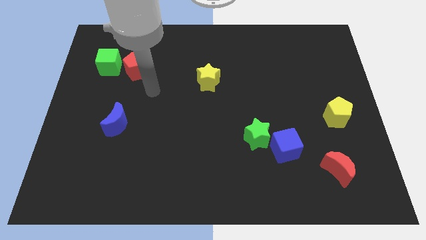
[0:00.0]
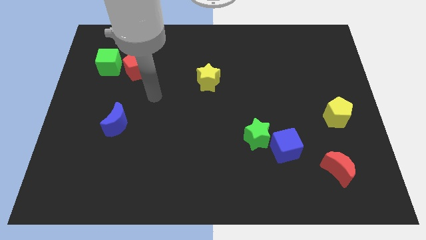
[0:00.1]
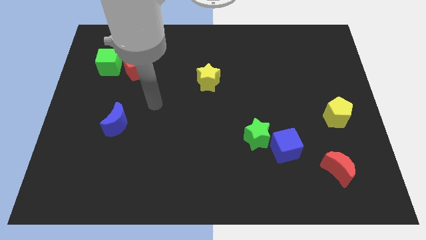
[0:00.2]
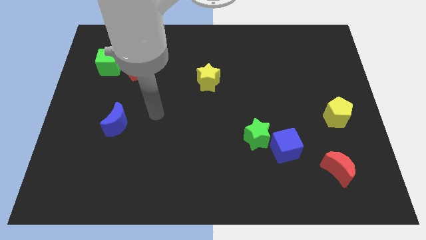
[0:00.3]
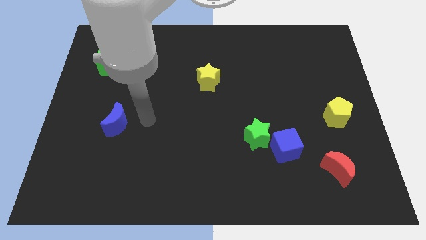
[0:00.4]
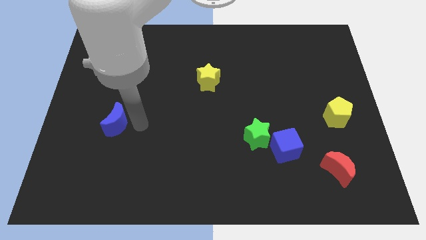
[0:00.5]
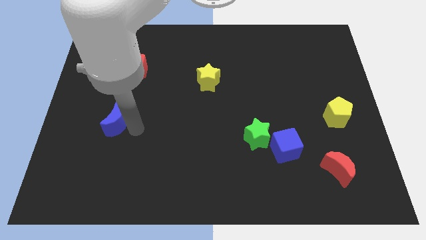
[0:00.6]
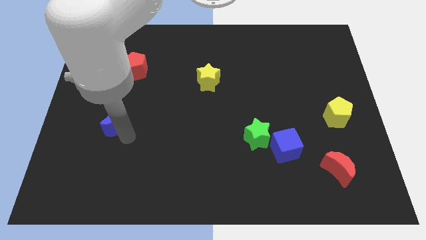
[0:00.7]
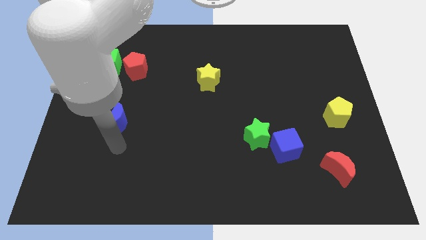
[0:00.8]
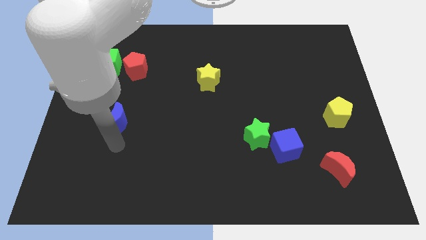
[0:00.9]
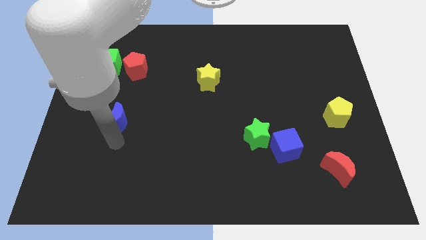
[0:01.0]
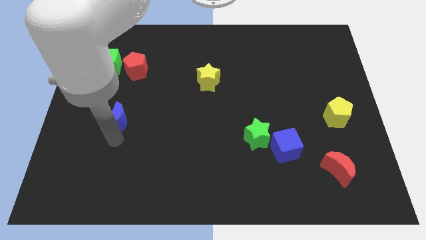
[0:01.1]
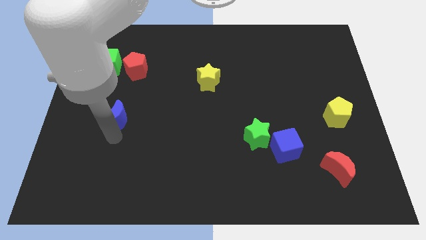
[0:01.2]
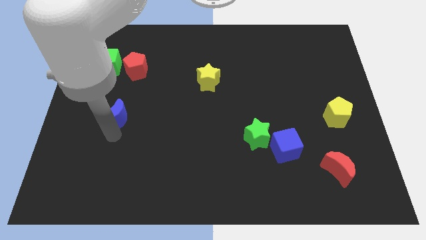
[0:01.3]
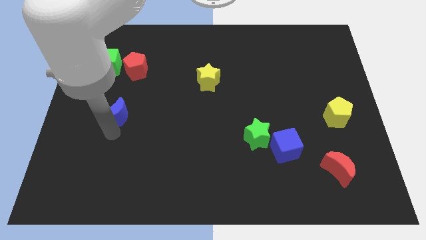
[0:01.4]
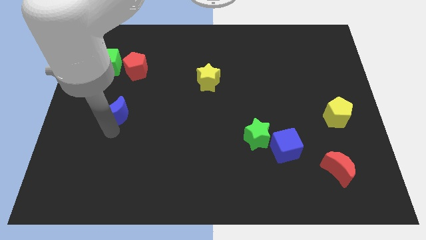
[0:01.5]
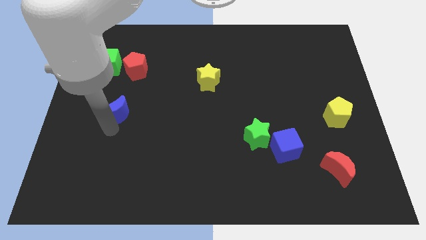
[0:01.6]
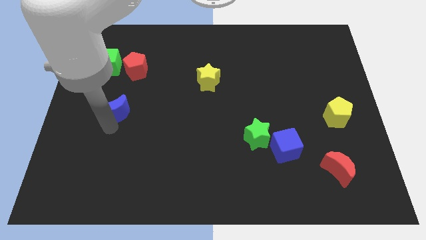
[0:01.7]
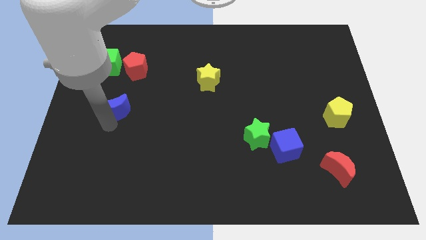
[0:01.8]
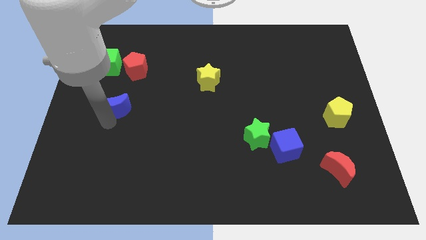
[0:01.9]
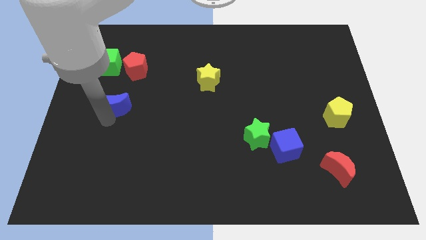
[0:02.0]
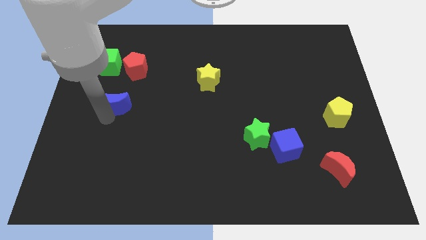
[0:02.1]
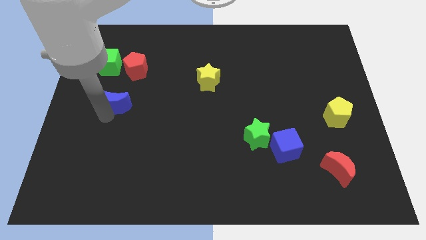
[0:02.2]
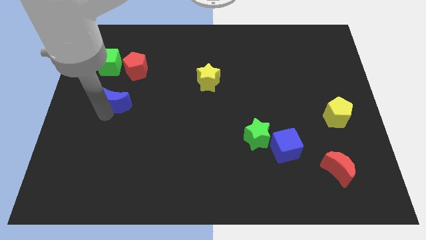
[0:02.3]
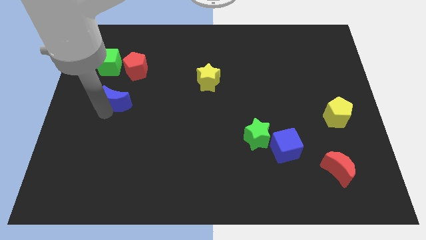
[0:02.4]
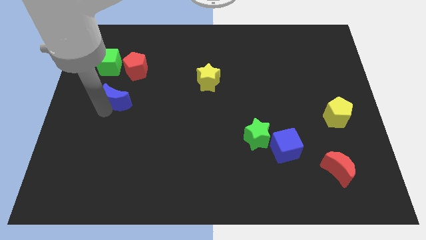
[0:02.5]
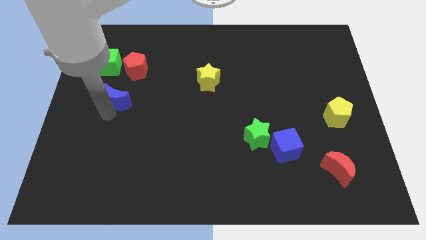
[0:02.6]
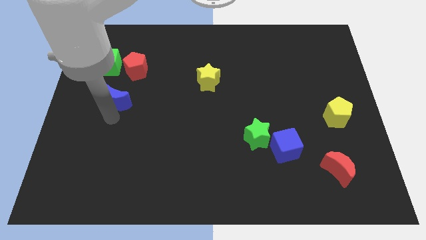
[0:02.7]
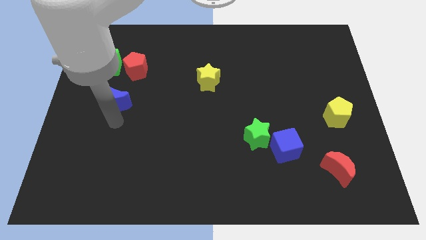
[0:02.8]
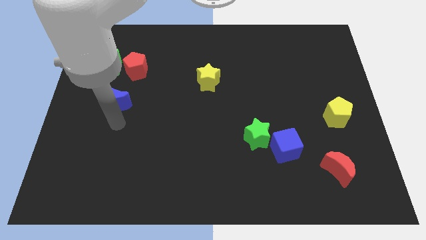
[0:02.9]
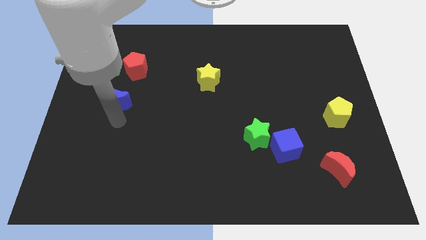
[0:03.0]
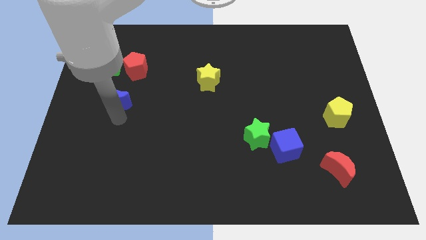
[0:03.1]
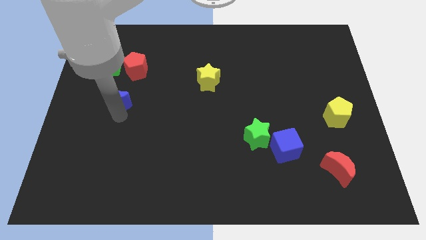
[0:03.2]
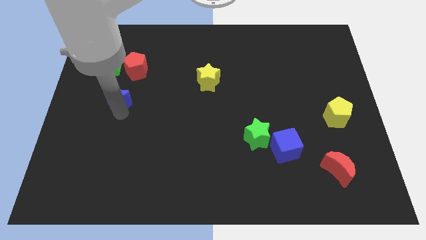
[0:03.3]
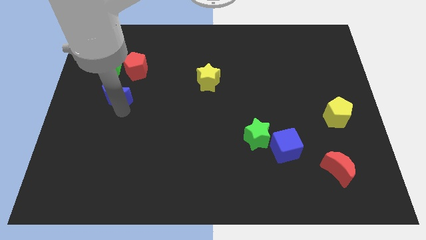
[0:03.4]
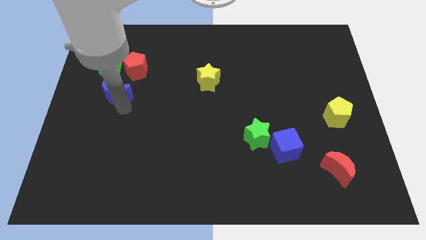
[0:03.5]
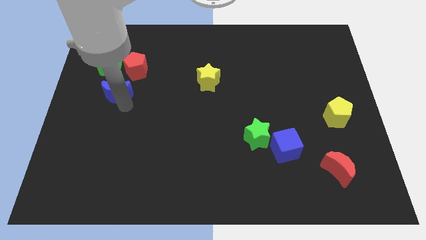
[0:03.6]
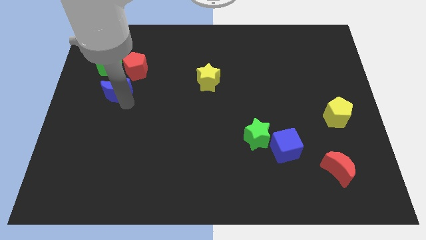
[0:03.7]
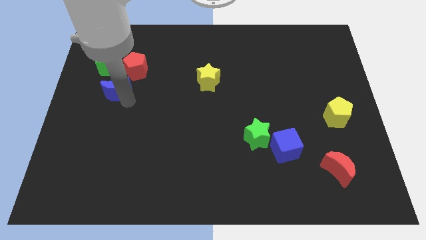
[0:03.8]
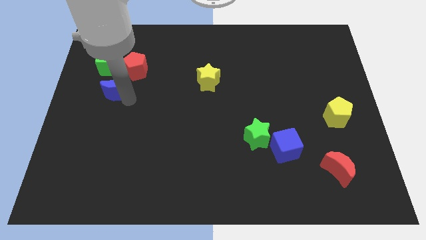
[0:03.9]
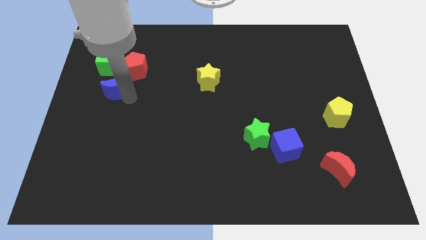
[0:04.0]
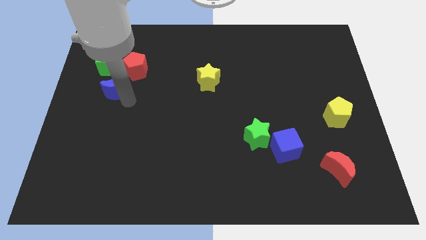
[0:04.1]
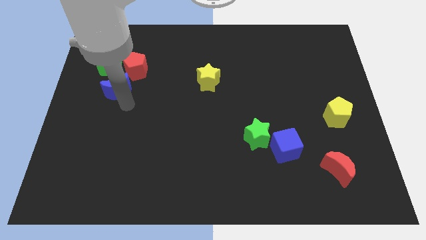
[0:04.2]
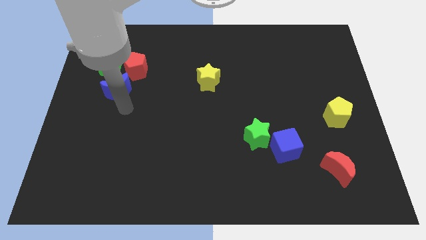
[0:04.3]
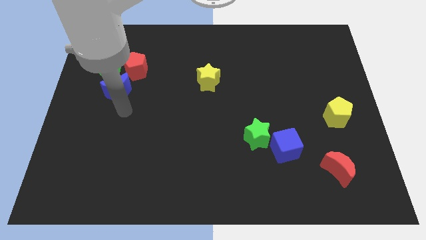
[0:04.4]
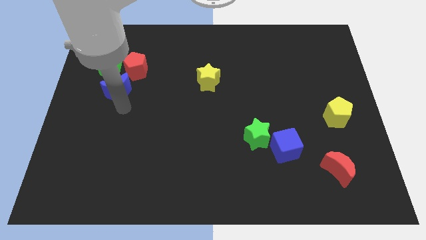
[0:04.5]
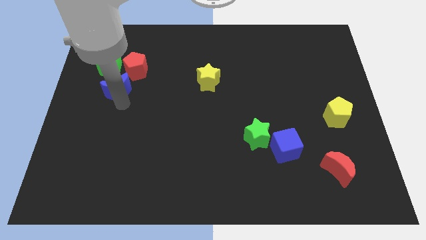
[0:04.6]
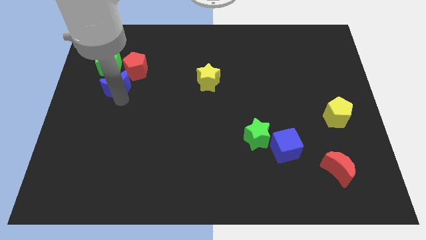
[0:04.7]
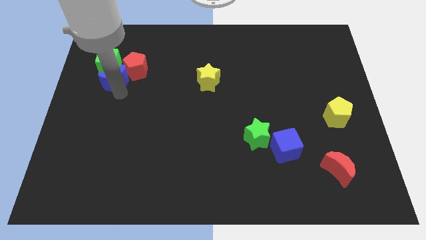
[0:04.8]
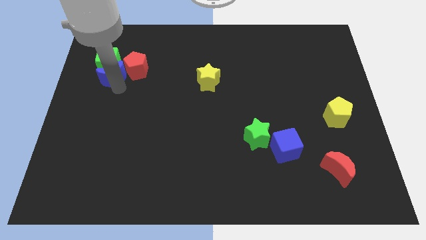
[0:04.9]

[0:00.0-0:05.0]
push the blue moon close to the green cube

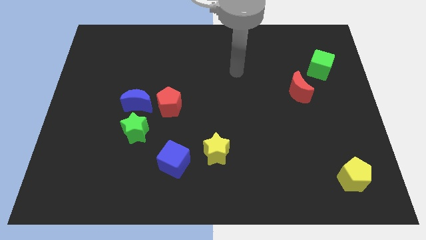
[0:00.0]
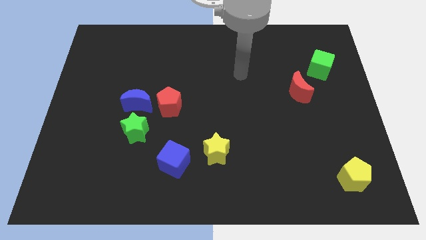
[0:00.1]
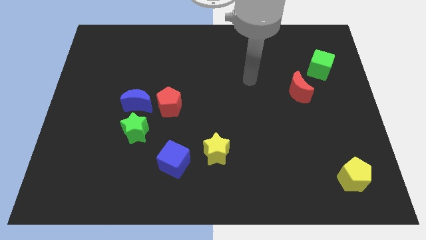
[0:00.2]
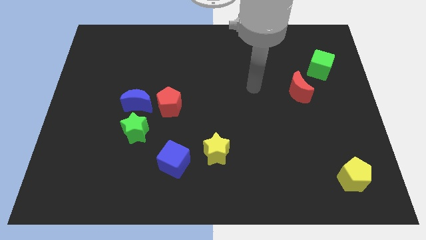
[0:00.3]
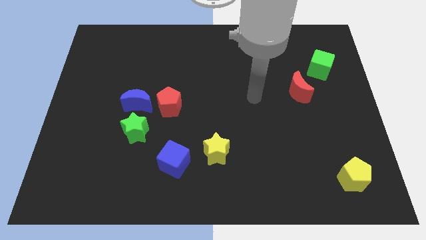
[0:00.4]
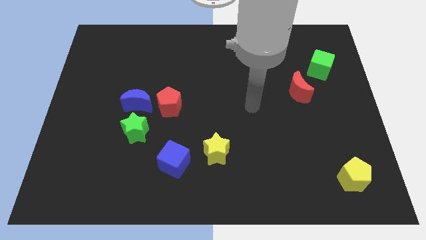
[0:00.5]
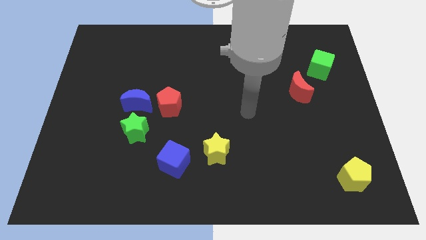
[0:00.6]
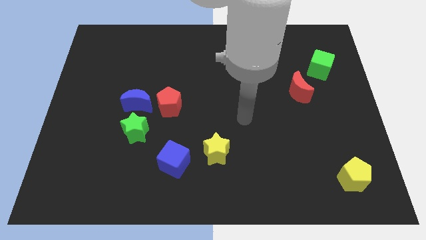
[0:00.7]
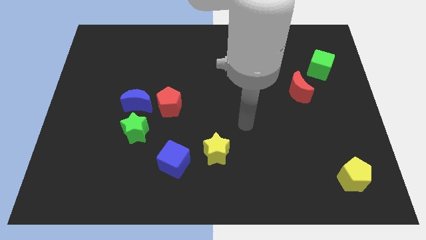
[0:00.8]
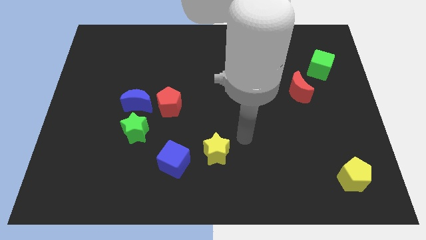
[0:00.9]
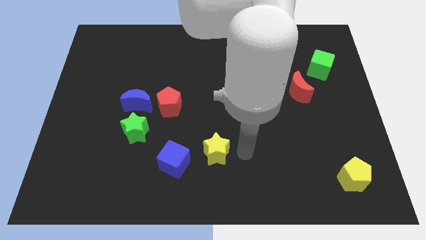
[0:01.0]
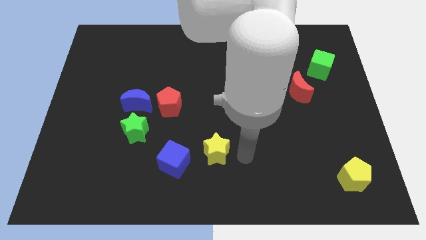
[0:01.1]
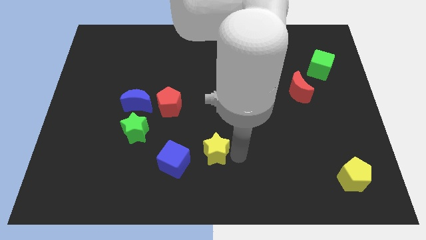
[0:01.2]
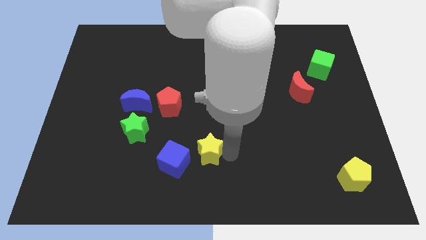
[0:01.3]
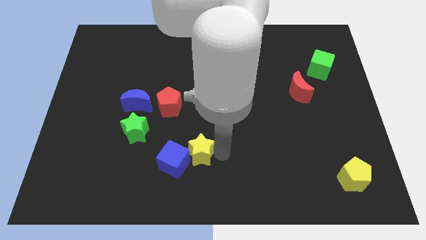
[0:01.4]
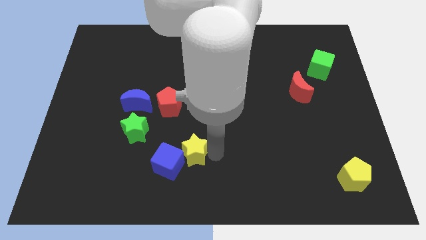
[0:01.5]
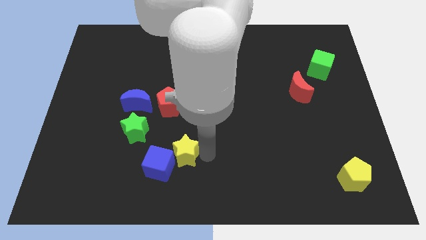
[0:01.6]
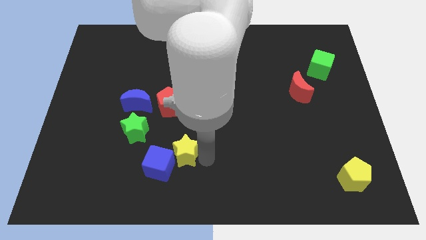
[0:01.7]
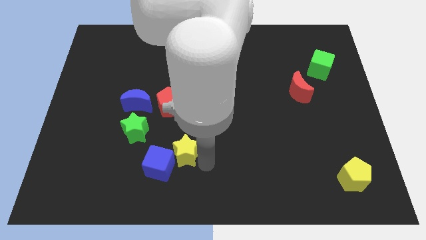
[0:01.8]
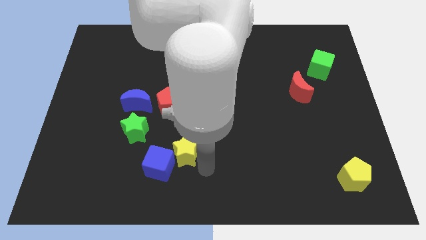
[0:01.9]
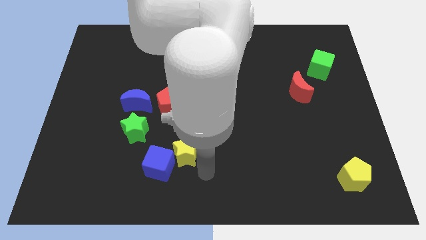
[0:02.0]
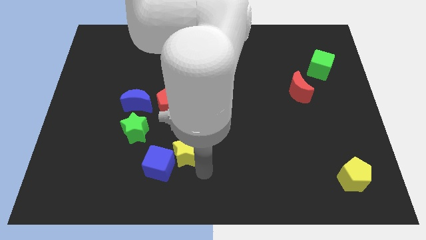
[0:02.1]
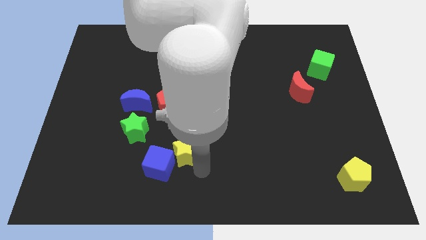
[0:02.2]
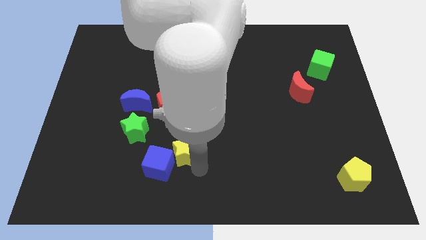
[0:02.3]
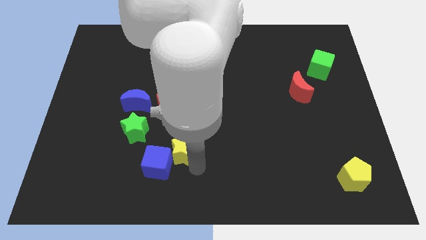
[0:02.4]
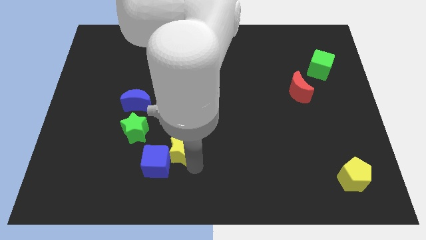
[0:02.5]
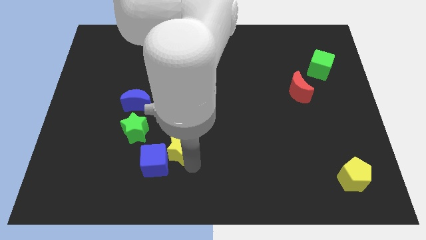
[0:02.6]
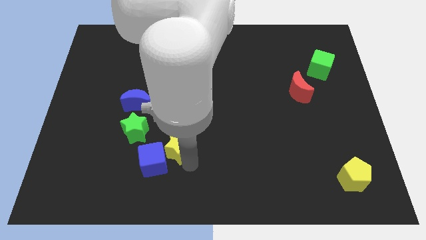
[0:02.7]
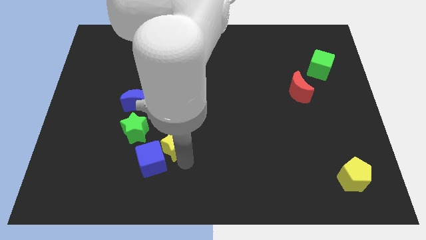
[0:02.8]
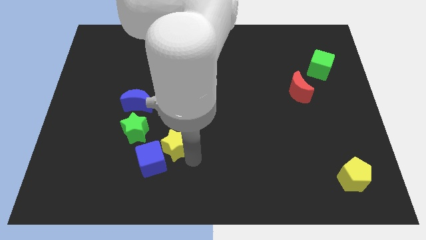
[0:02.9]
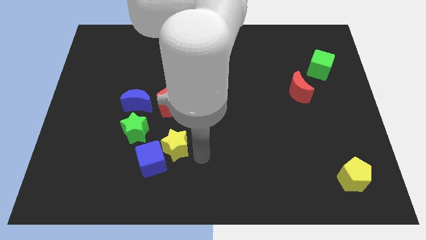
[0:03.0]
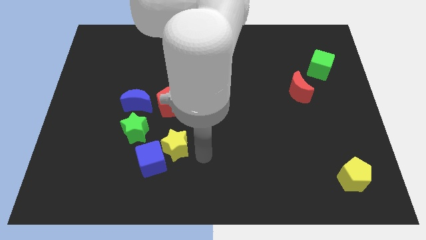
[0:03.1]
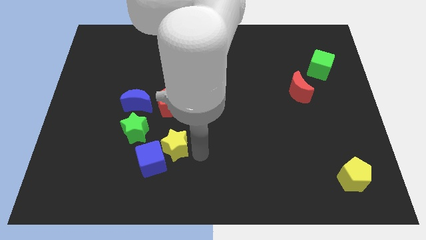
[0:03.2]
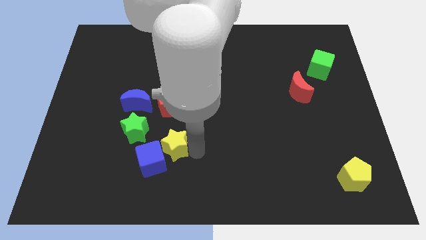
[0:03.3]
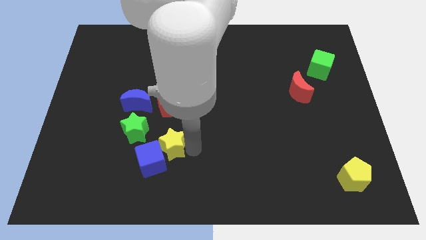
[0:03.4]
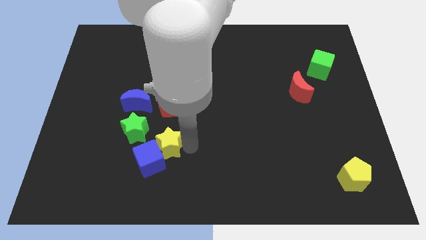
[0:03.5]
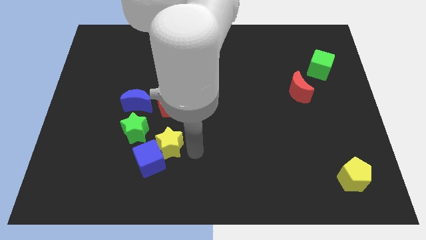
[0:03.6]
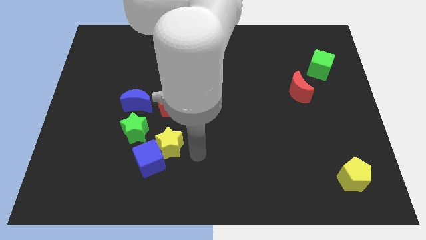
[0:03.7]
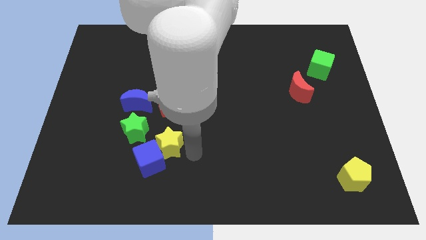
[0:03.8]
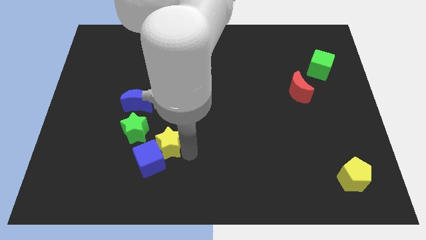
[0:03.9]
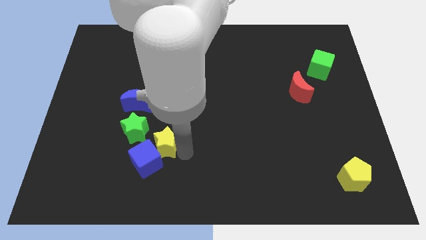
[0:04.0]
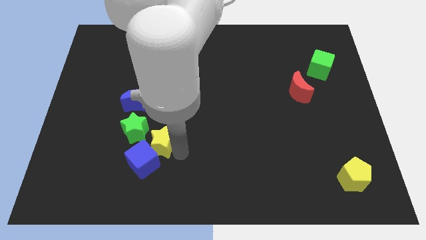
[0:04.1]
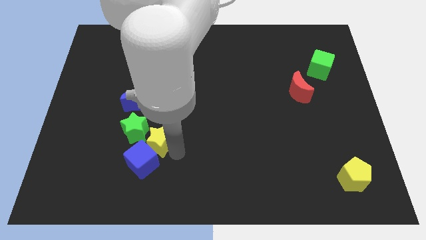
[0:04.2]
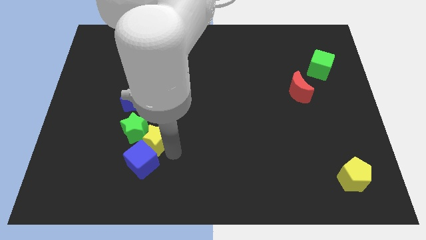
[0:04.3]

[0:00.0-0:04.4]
move the yellow star next to the green star
